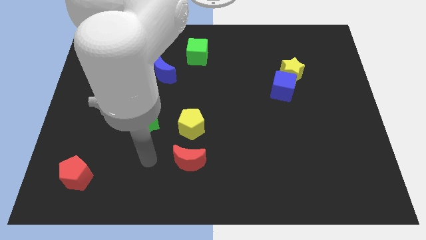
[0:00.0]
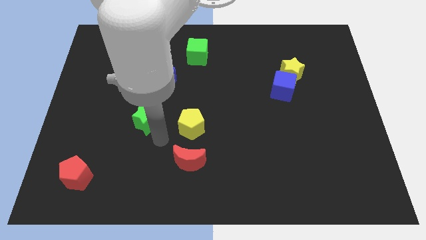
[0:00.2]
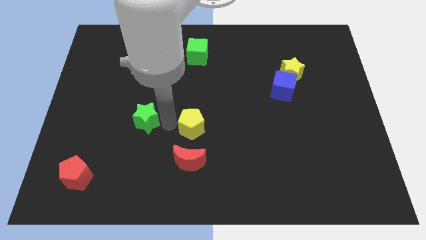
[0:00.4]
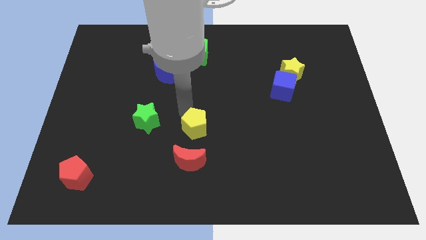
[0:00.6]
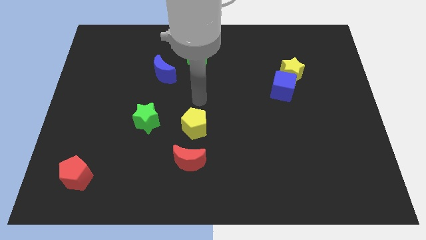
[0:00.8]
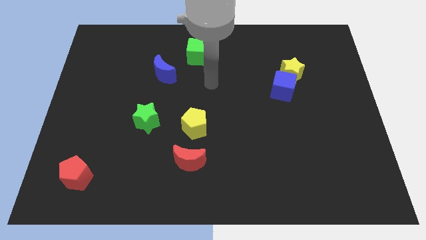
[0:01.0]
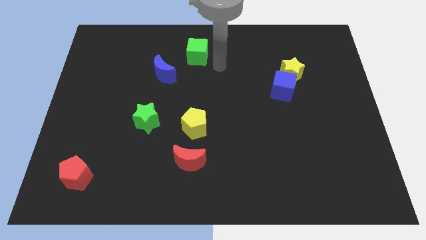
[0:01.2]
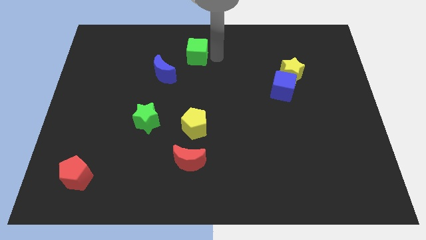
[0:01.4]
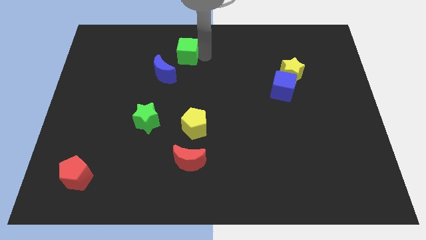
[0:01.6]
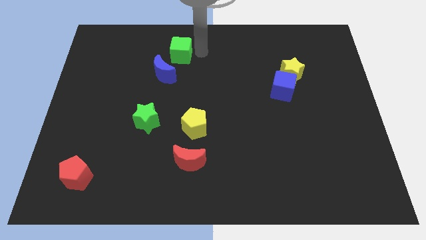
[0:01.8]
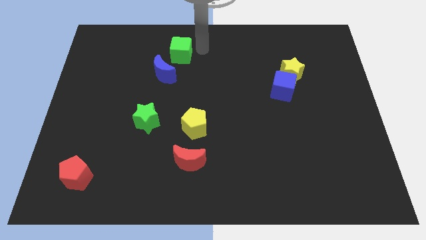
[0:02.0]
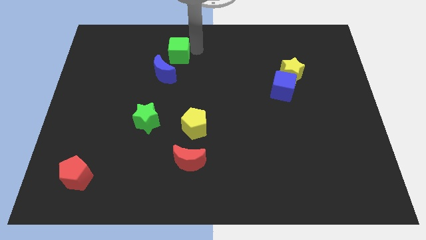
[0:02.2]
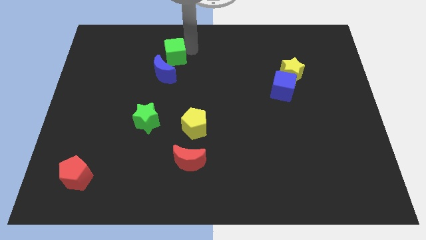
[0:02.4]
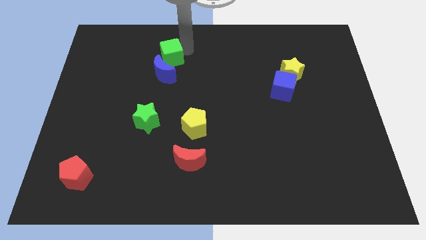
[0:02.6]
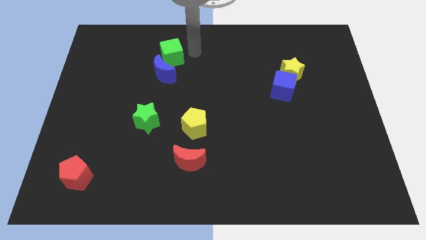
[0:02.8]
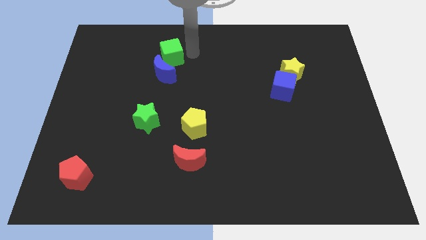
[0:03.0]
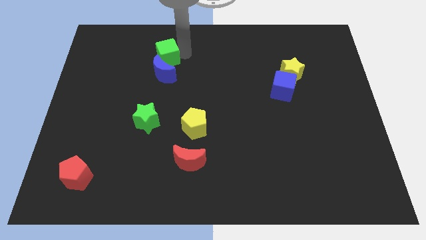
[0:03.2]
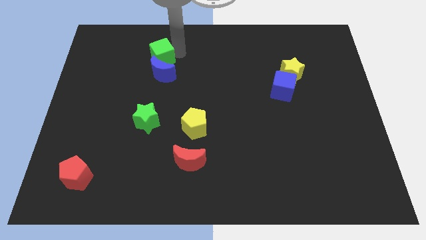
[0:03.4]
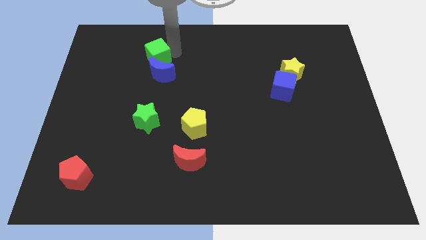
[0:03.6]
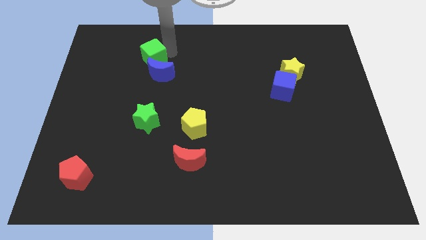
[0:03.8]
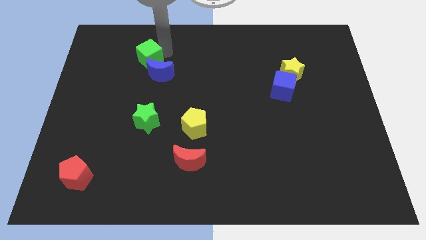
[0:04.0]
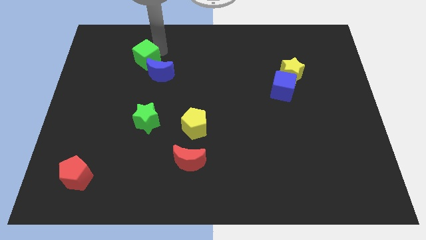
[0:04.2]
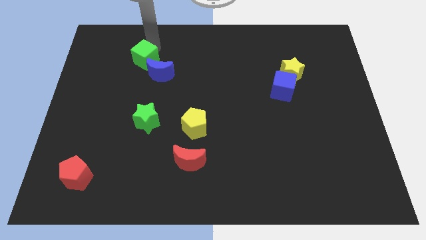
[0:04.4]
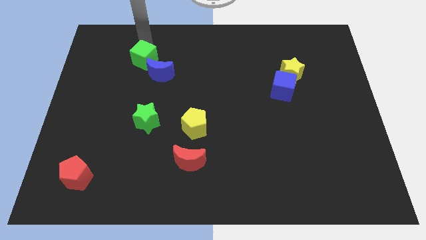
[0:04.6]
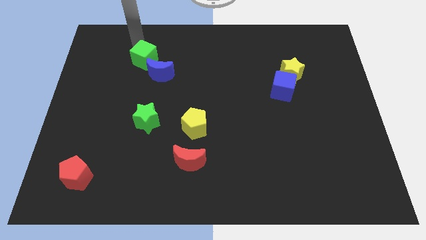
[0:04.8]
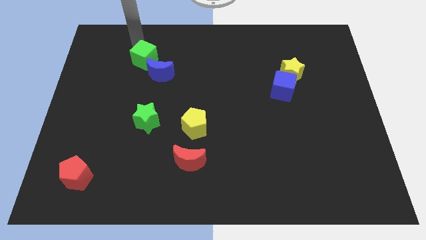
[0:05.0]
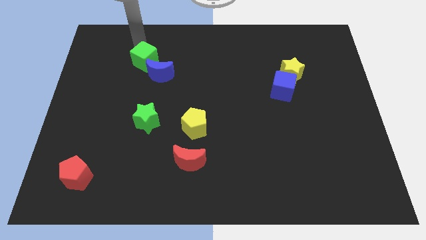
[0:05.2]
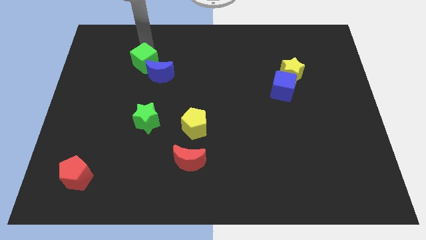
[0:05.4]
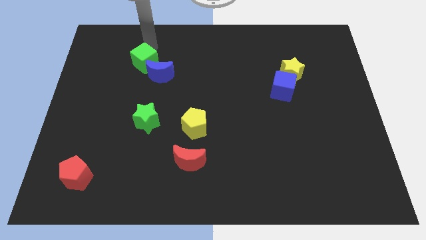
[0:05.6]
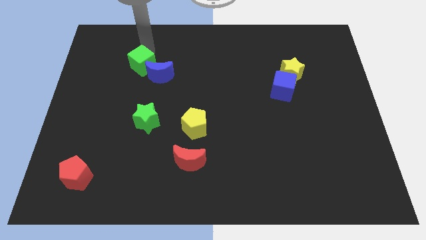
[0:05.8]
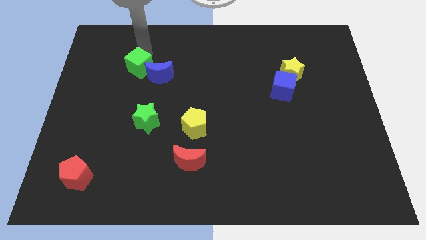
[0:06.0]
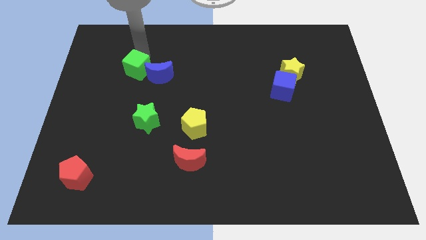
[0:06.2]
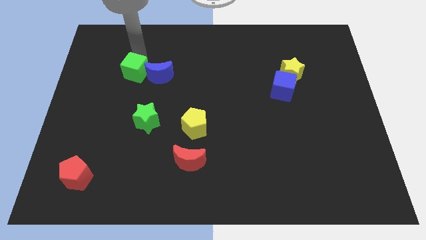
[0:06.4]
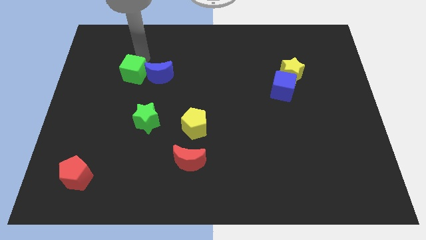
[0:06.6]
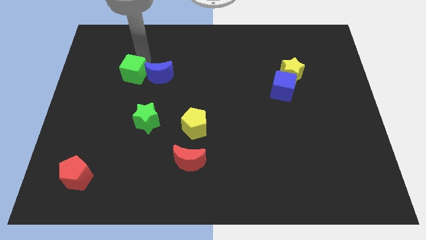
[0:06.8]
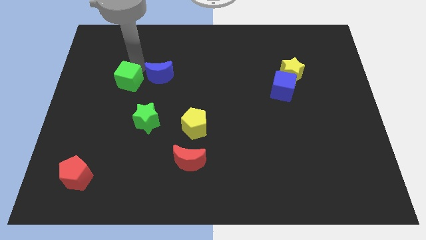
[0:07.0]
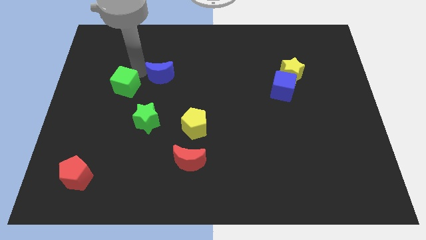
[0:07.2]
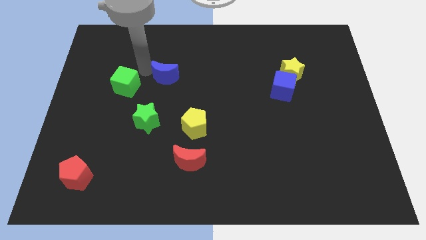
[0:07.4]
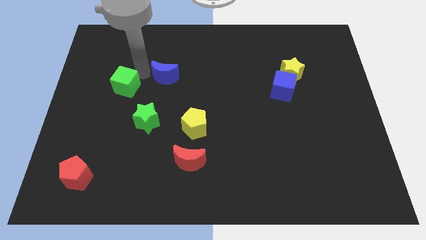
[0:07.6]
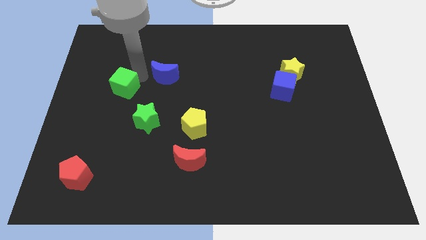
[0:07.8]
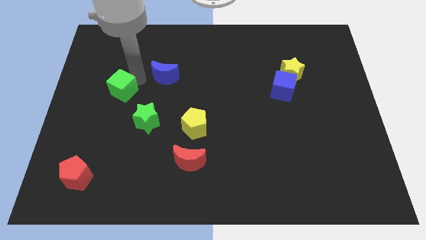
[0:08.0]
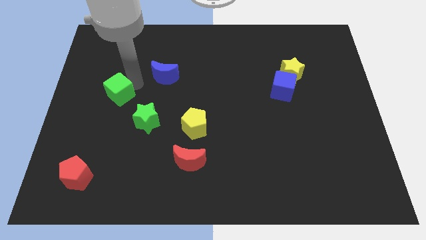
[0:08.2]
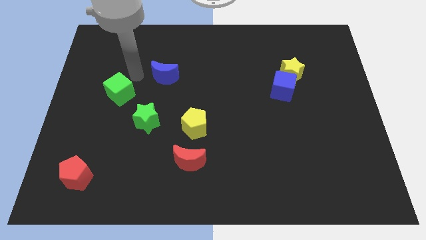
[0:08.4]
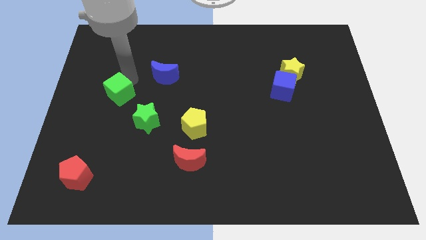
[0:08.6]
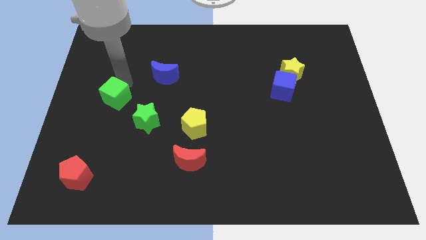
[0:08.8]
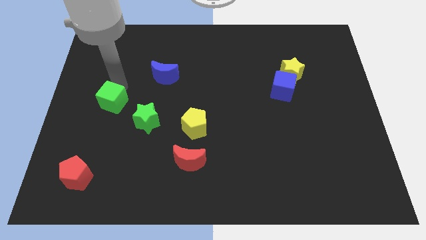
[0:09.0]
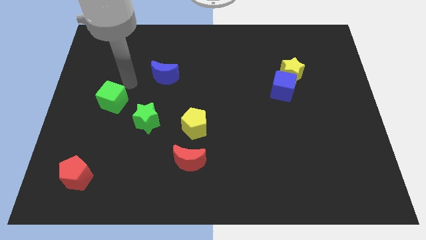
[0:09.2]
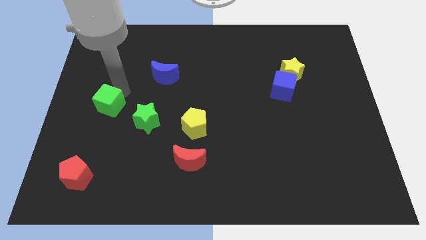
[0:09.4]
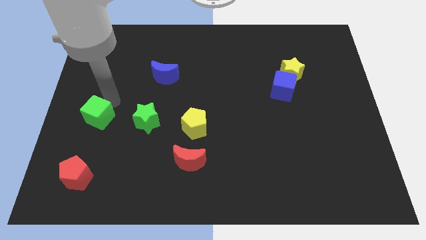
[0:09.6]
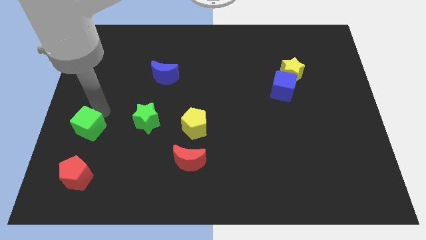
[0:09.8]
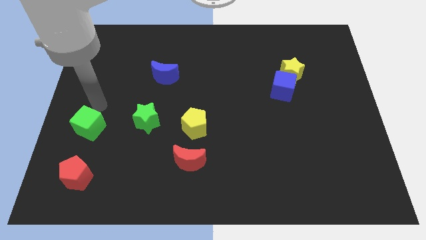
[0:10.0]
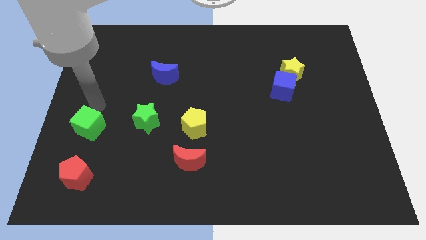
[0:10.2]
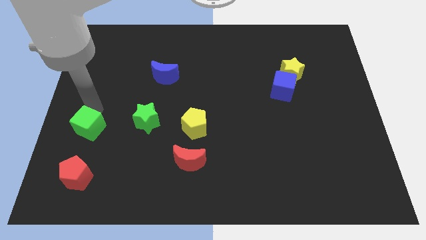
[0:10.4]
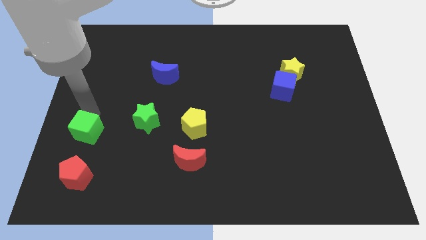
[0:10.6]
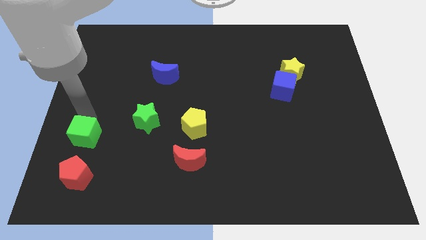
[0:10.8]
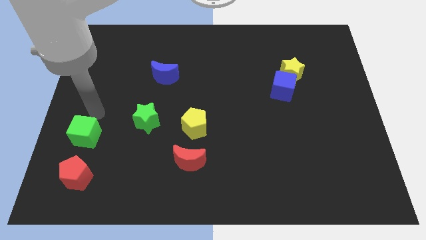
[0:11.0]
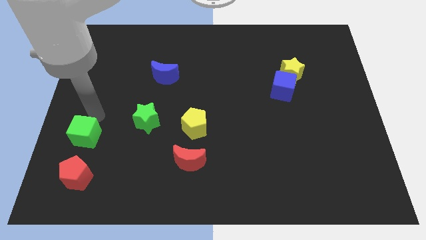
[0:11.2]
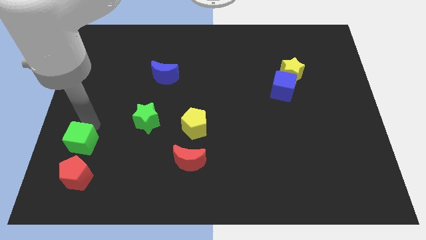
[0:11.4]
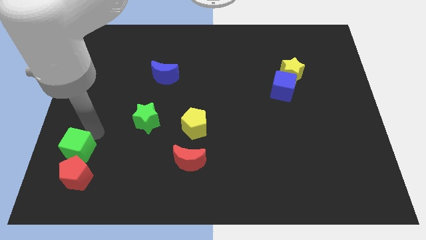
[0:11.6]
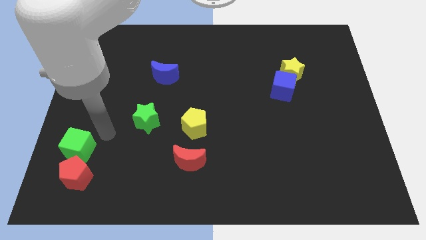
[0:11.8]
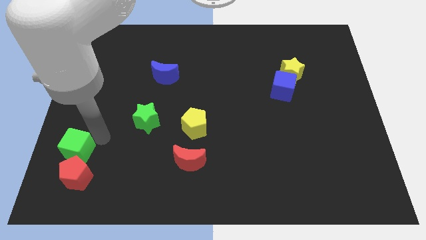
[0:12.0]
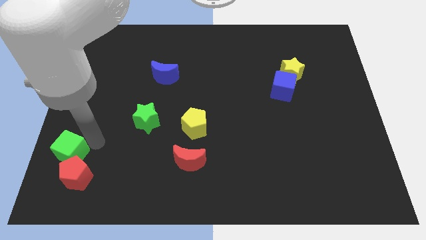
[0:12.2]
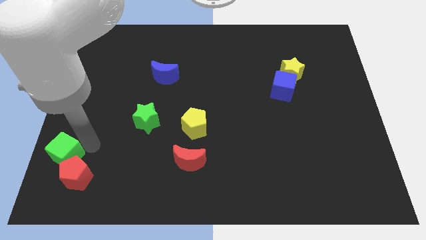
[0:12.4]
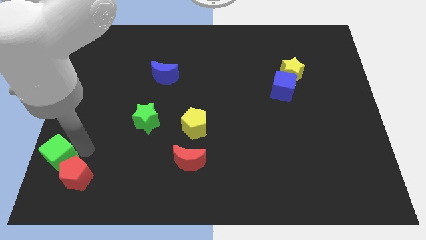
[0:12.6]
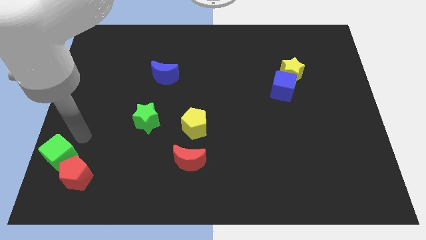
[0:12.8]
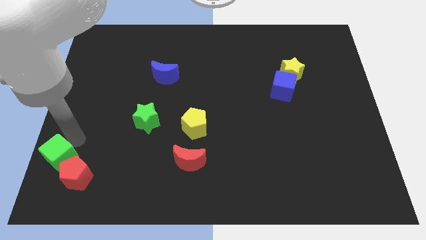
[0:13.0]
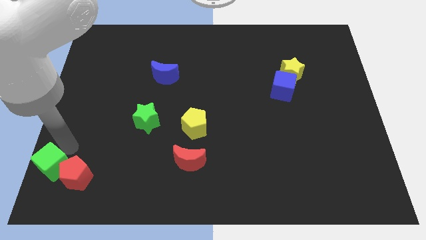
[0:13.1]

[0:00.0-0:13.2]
put the green cube to the bottom left

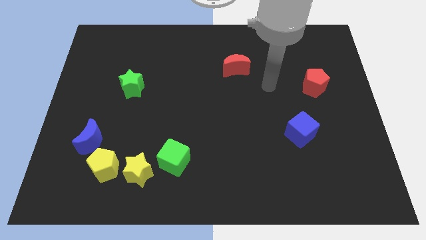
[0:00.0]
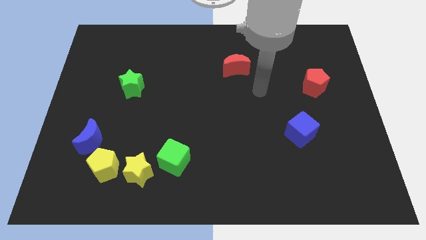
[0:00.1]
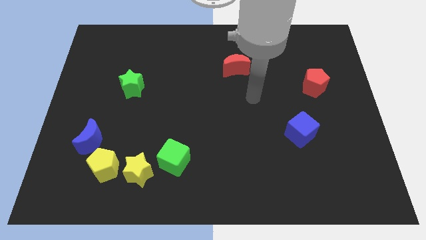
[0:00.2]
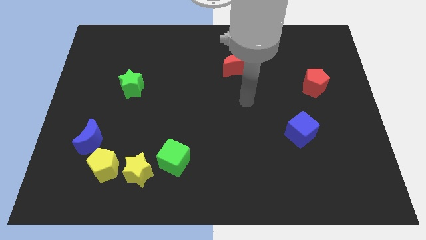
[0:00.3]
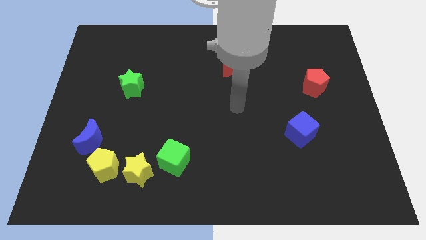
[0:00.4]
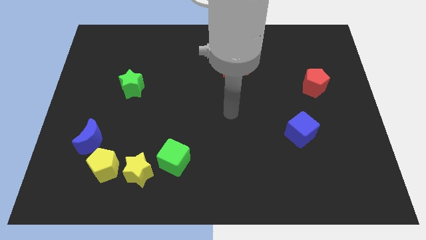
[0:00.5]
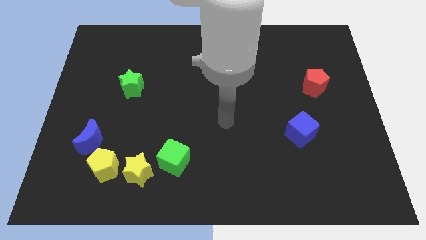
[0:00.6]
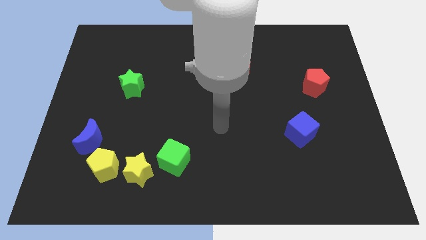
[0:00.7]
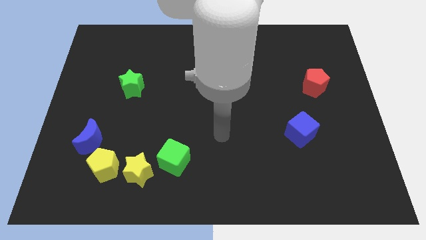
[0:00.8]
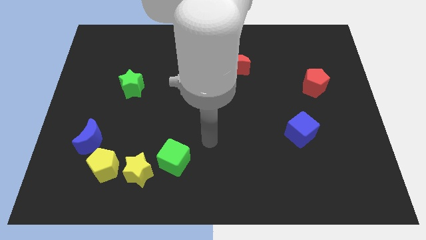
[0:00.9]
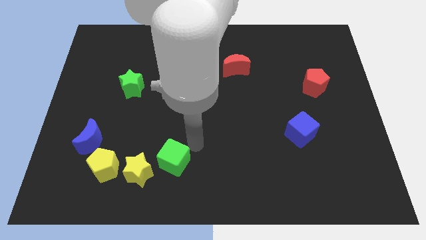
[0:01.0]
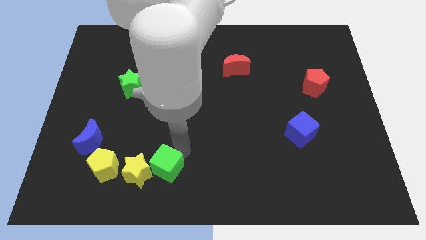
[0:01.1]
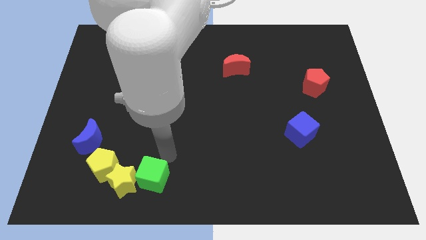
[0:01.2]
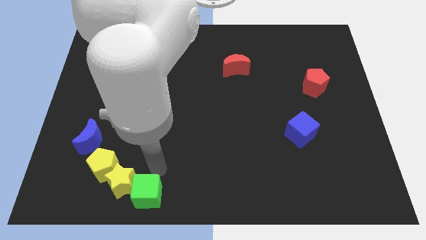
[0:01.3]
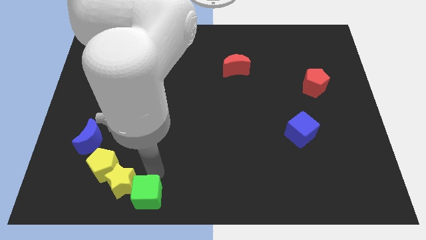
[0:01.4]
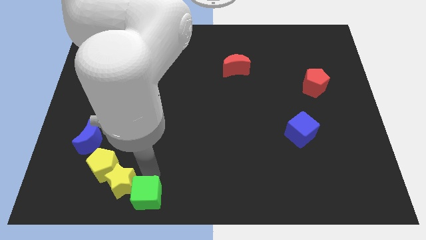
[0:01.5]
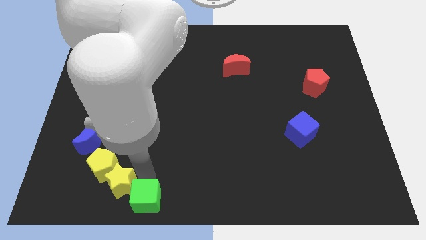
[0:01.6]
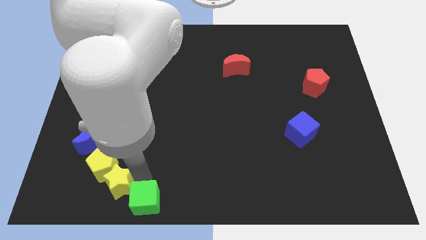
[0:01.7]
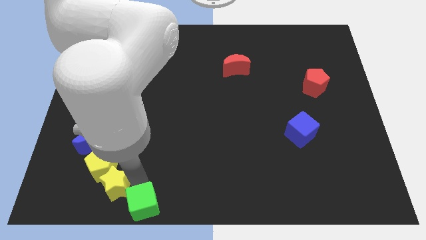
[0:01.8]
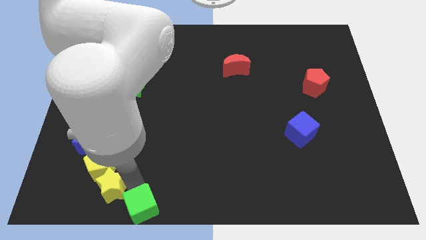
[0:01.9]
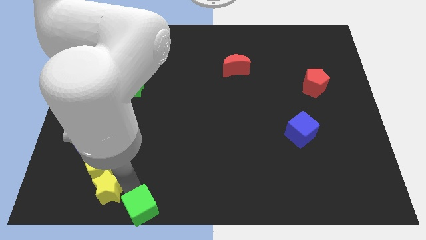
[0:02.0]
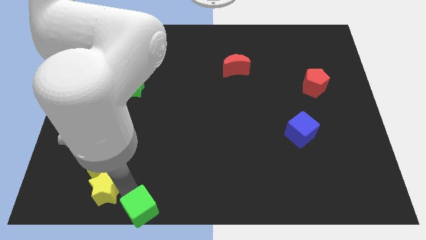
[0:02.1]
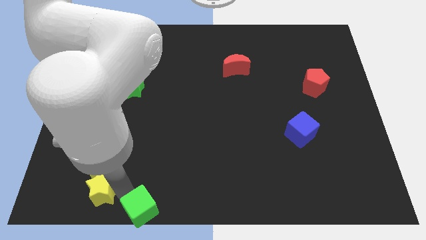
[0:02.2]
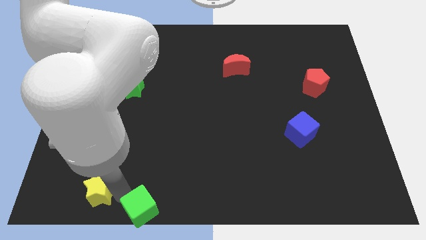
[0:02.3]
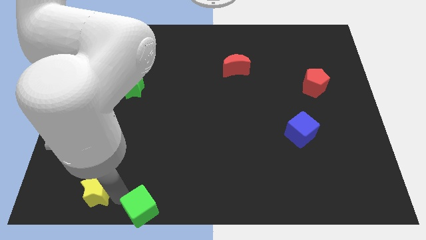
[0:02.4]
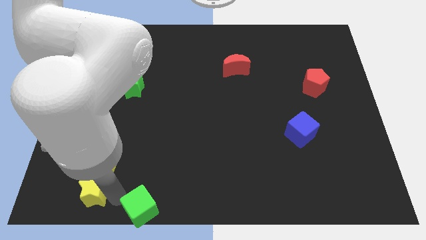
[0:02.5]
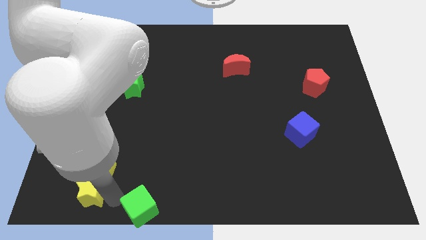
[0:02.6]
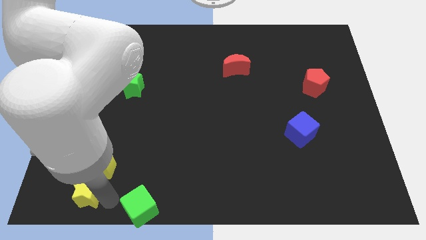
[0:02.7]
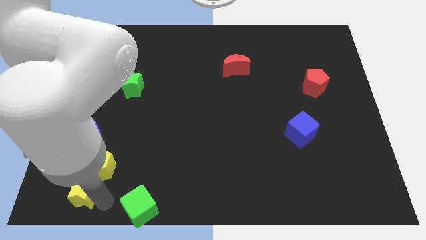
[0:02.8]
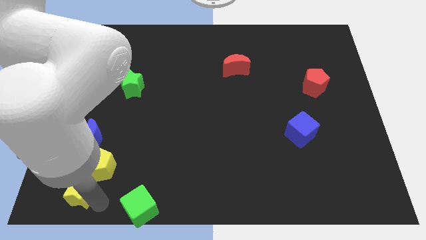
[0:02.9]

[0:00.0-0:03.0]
move the yellow star to the bottom left corner
